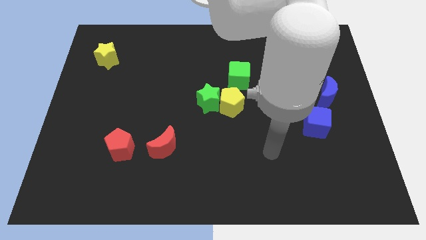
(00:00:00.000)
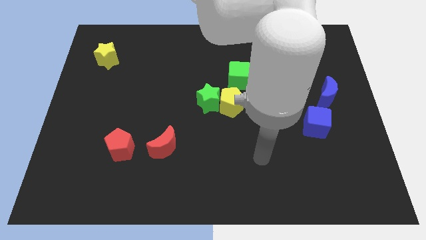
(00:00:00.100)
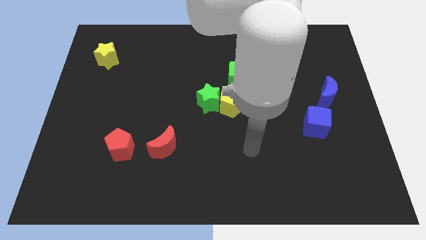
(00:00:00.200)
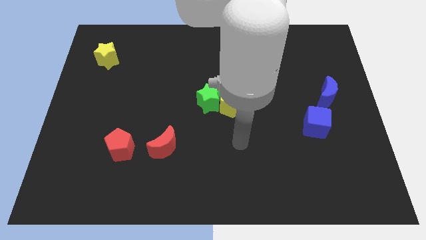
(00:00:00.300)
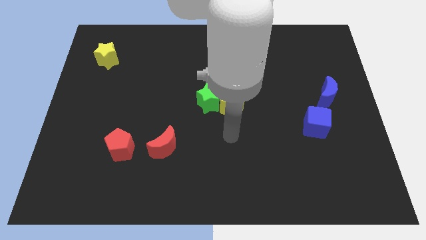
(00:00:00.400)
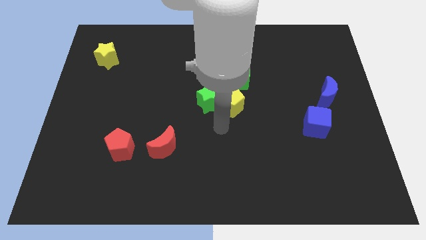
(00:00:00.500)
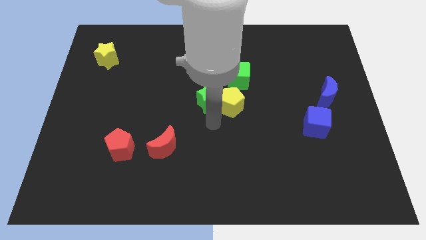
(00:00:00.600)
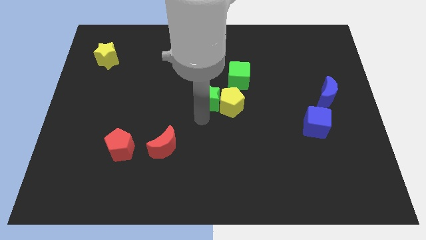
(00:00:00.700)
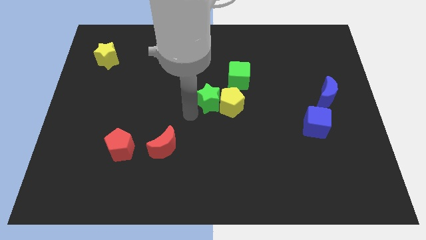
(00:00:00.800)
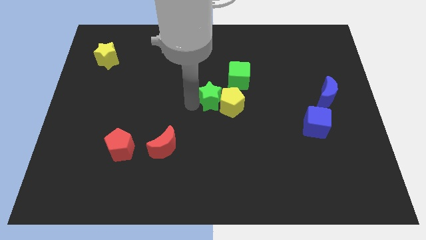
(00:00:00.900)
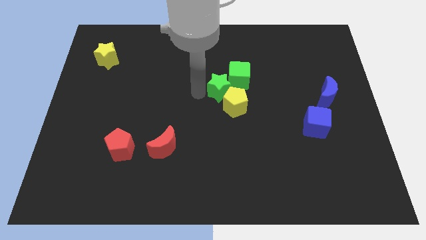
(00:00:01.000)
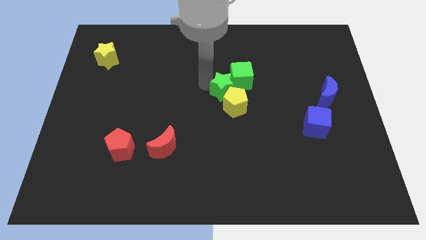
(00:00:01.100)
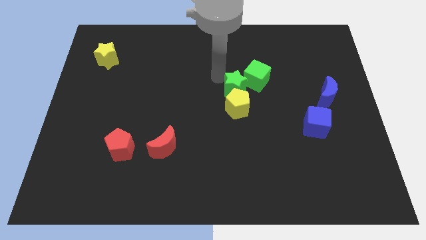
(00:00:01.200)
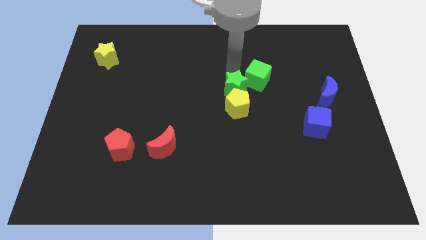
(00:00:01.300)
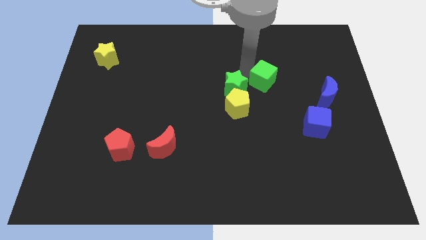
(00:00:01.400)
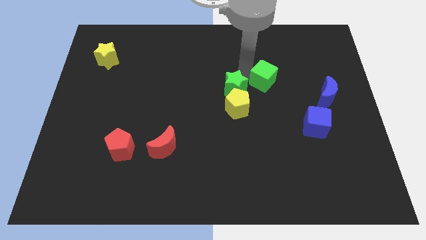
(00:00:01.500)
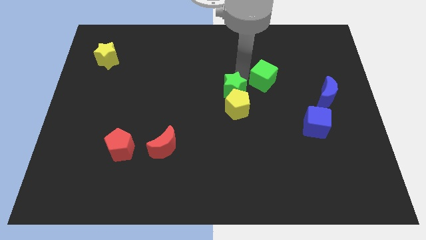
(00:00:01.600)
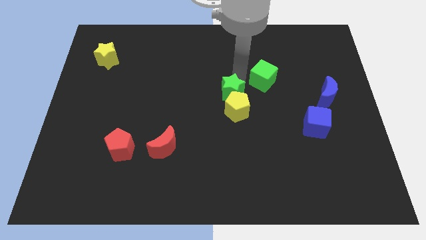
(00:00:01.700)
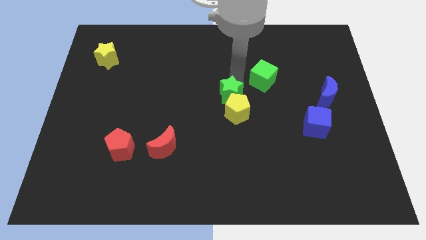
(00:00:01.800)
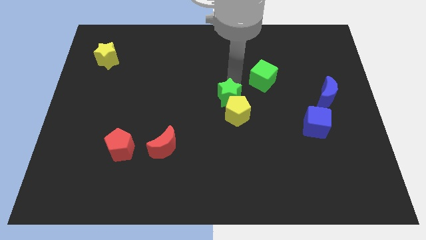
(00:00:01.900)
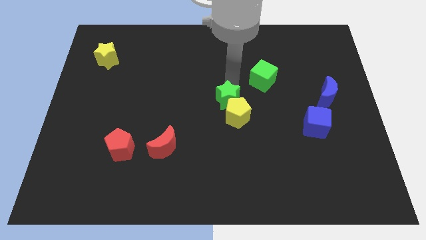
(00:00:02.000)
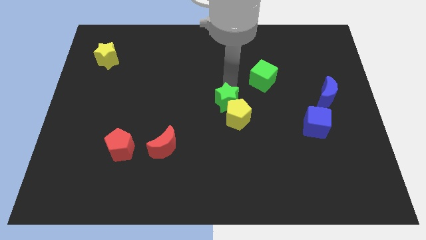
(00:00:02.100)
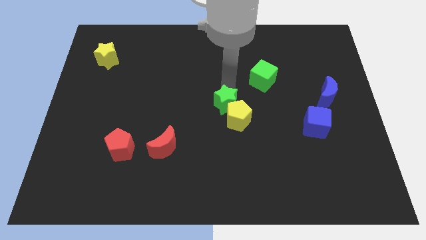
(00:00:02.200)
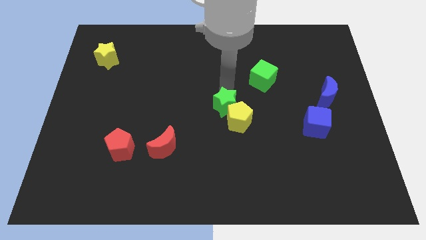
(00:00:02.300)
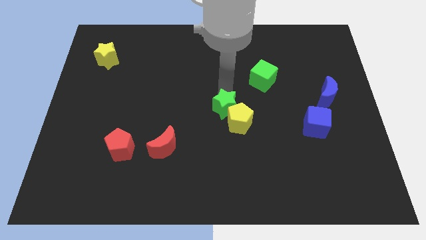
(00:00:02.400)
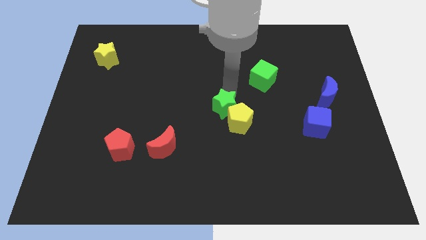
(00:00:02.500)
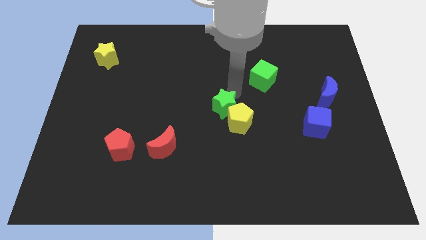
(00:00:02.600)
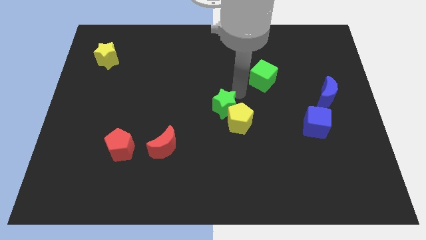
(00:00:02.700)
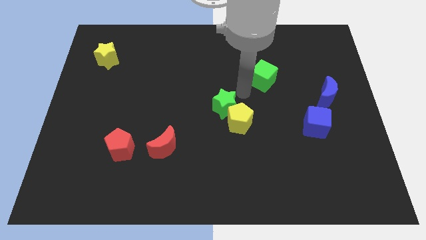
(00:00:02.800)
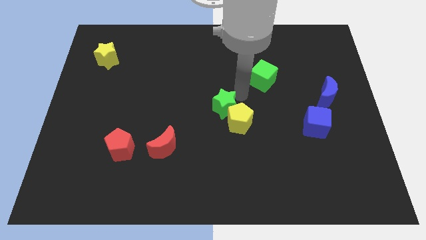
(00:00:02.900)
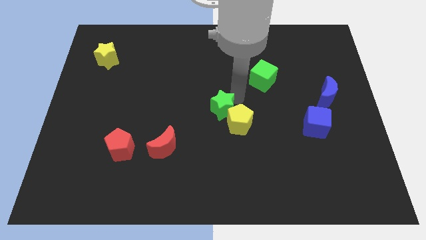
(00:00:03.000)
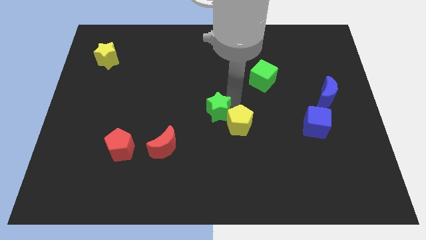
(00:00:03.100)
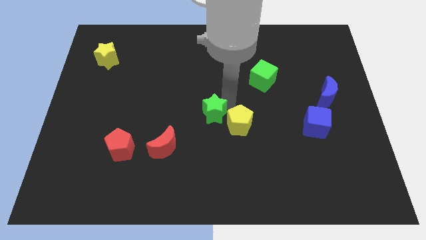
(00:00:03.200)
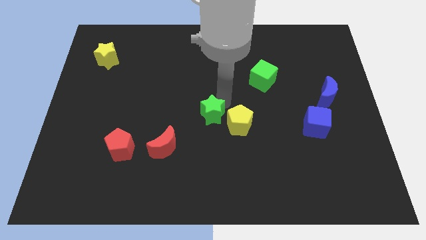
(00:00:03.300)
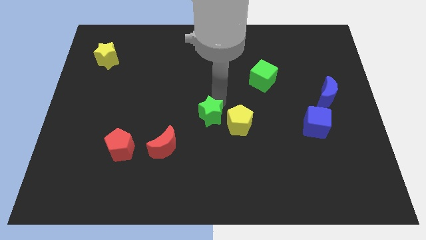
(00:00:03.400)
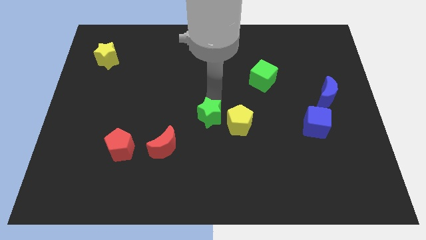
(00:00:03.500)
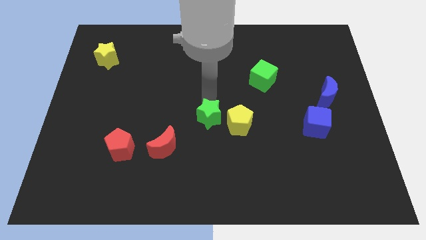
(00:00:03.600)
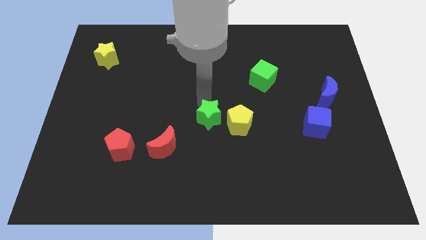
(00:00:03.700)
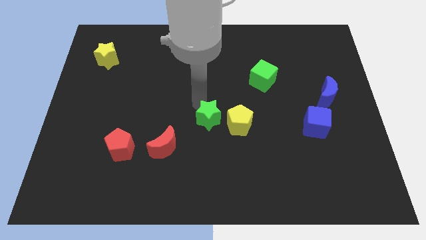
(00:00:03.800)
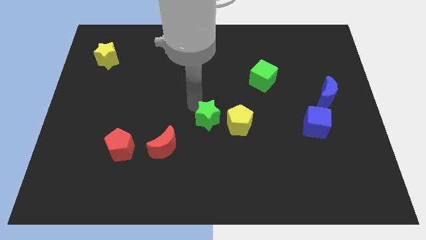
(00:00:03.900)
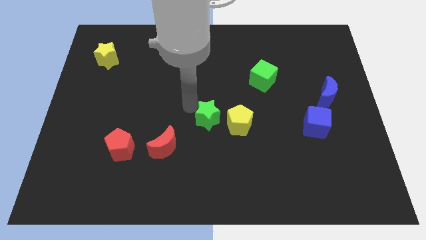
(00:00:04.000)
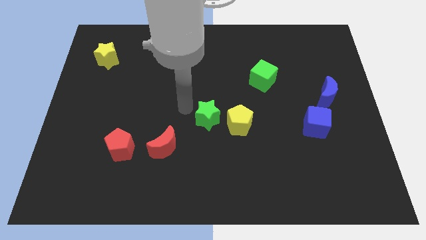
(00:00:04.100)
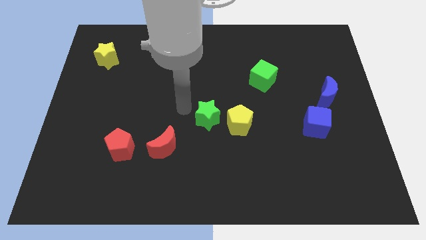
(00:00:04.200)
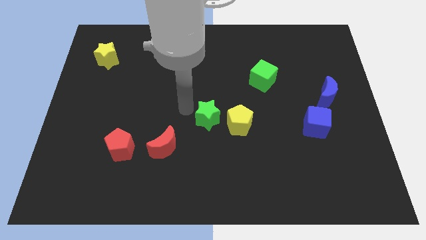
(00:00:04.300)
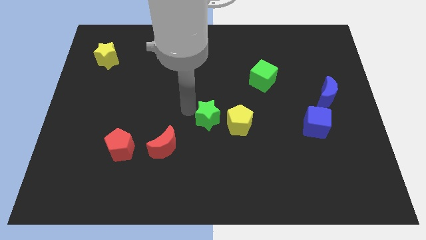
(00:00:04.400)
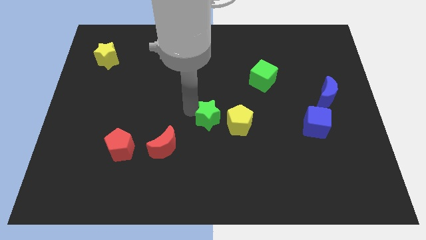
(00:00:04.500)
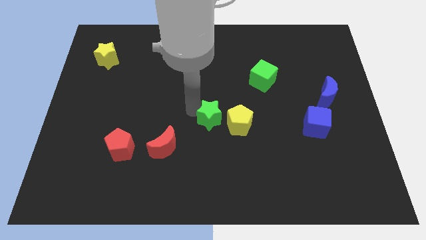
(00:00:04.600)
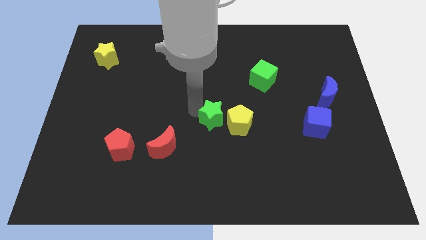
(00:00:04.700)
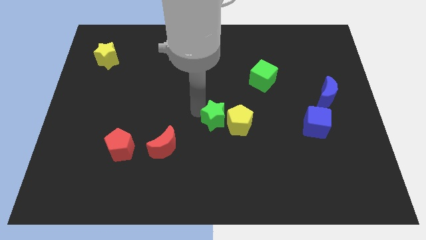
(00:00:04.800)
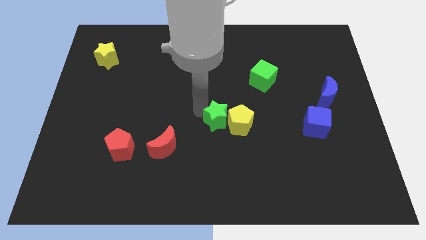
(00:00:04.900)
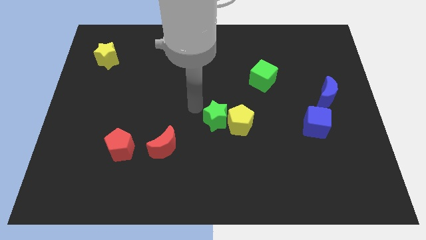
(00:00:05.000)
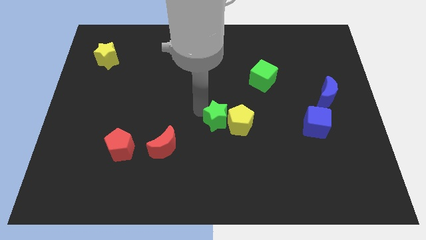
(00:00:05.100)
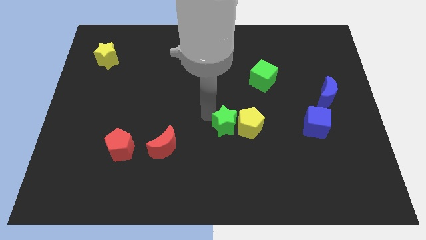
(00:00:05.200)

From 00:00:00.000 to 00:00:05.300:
push the green star downwards and then right somewhat

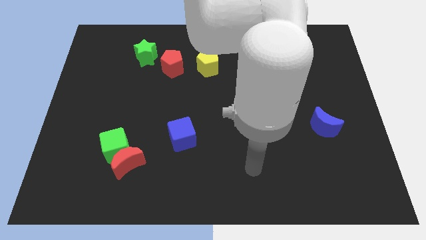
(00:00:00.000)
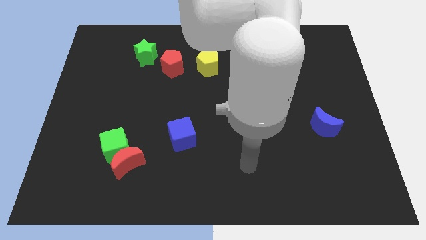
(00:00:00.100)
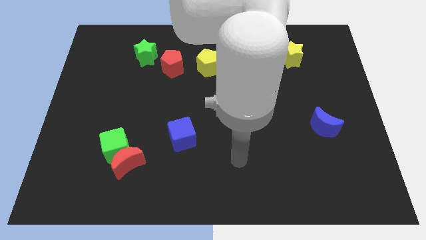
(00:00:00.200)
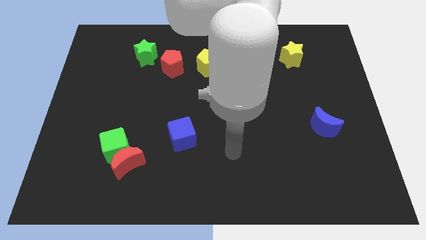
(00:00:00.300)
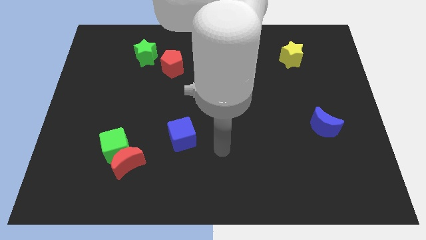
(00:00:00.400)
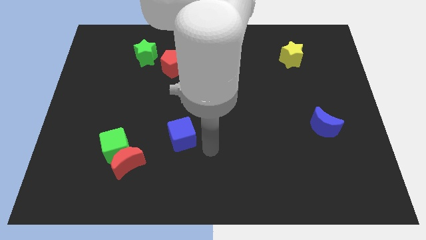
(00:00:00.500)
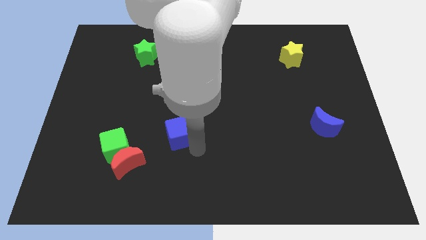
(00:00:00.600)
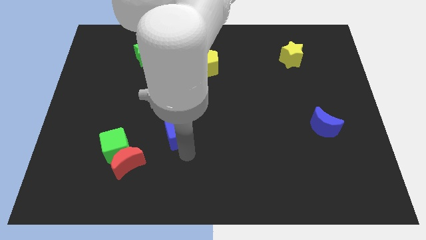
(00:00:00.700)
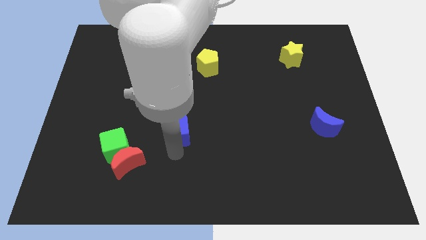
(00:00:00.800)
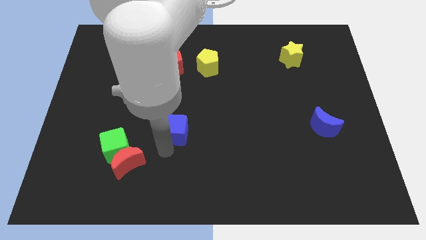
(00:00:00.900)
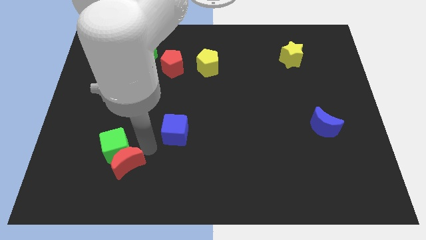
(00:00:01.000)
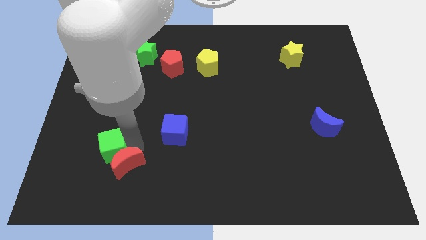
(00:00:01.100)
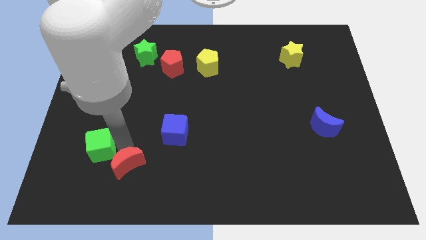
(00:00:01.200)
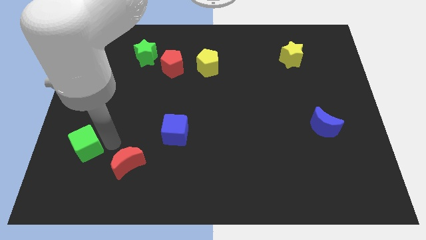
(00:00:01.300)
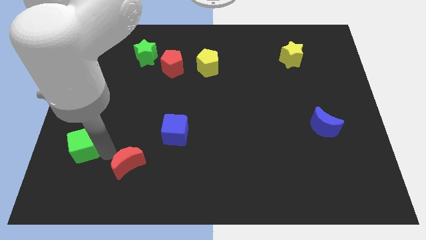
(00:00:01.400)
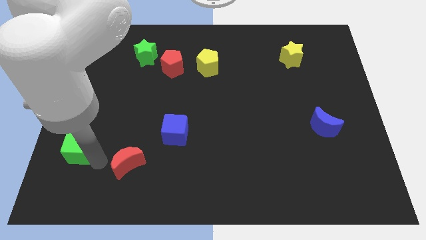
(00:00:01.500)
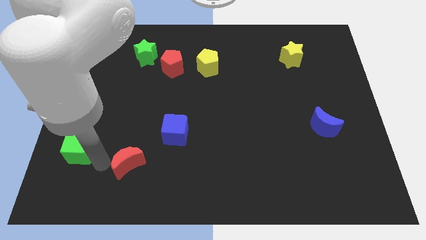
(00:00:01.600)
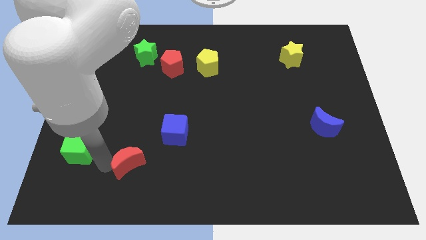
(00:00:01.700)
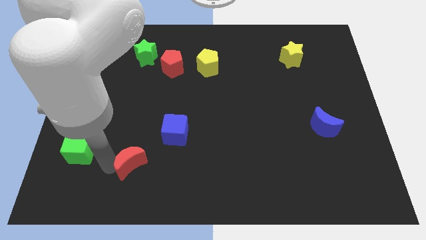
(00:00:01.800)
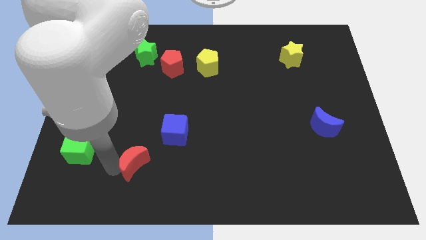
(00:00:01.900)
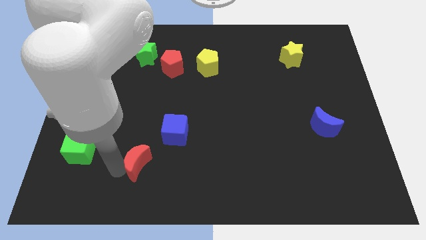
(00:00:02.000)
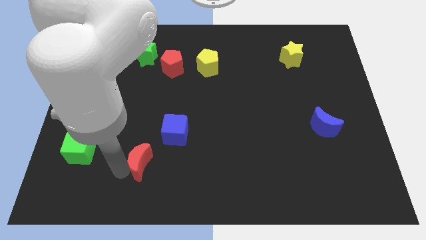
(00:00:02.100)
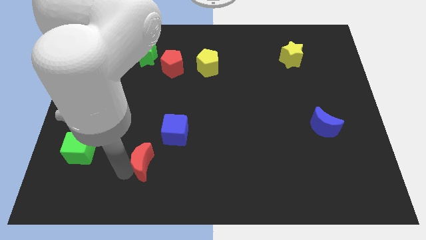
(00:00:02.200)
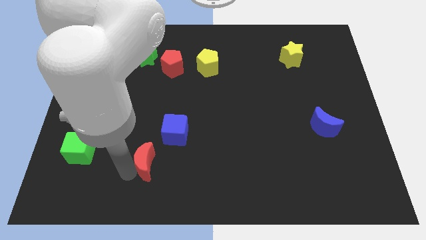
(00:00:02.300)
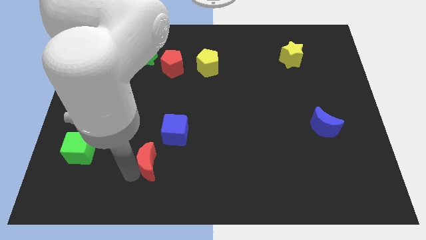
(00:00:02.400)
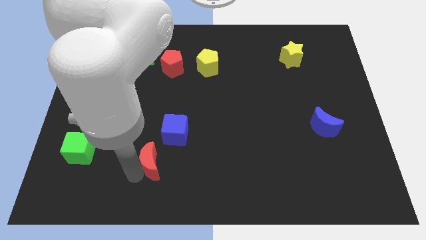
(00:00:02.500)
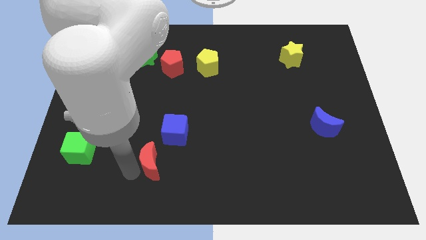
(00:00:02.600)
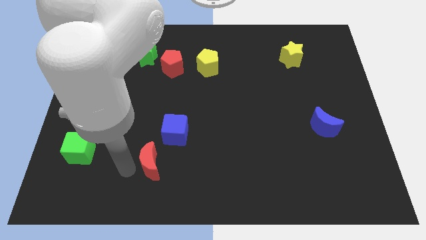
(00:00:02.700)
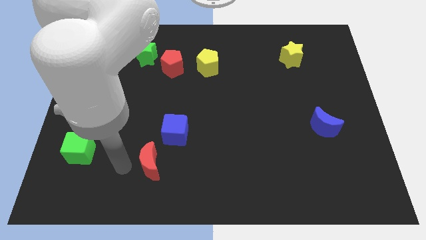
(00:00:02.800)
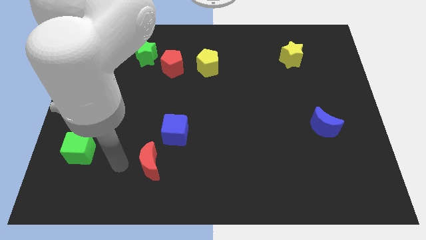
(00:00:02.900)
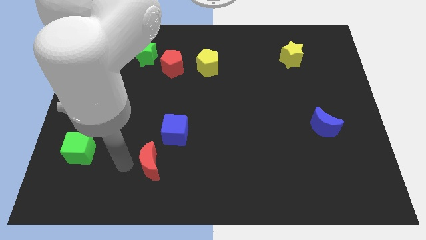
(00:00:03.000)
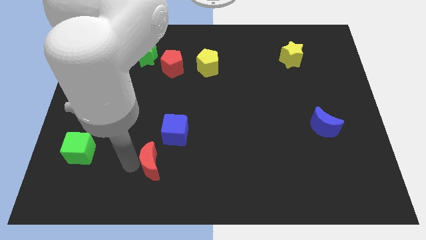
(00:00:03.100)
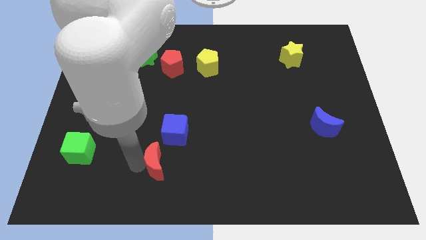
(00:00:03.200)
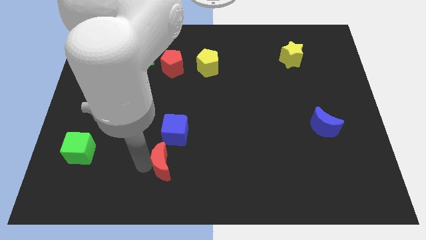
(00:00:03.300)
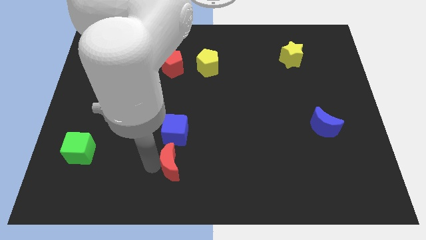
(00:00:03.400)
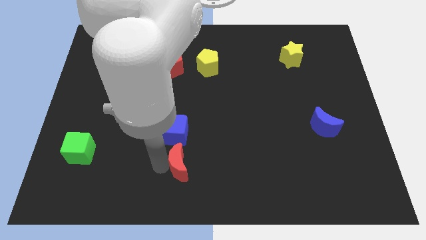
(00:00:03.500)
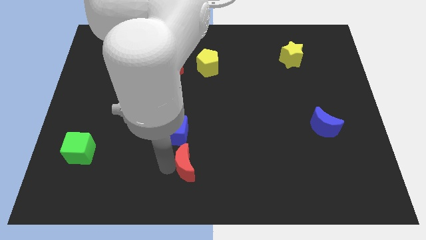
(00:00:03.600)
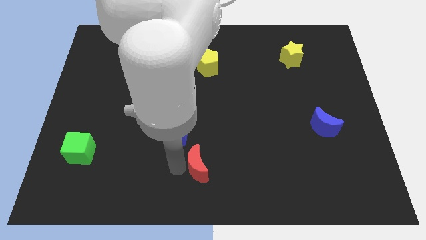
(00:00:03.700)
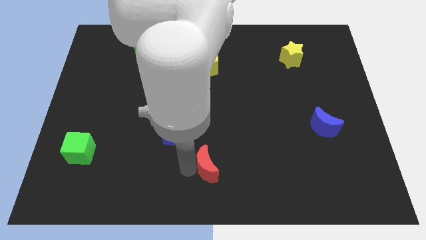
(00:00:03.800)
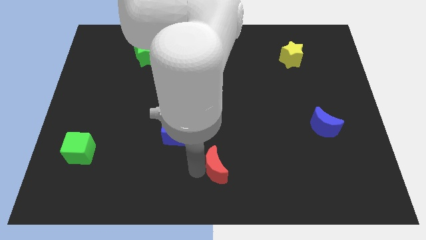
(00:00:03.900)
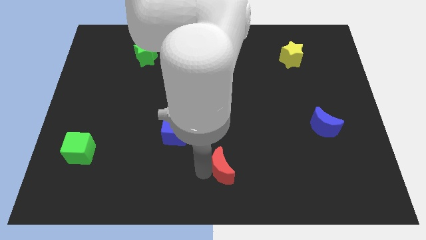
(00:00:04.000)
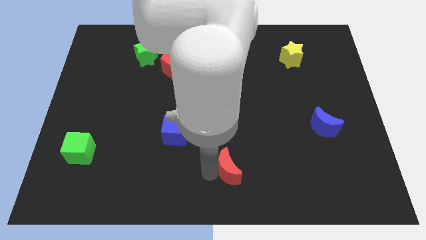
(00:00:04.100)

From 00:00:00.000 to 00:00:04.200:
push the red moon right
